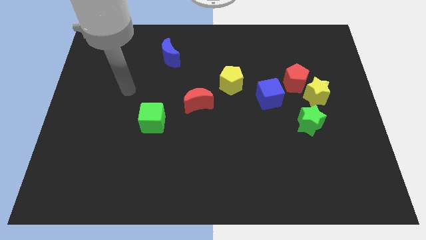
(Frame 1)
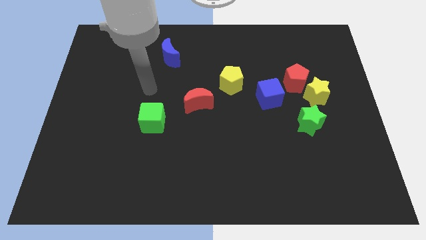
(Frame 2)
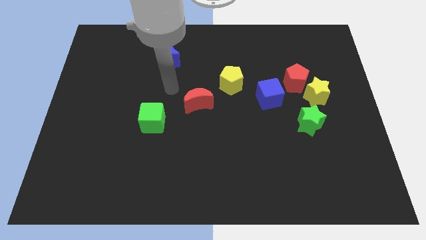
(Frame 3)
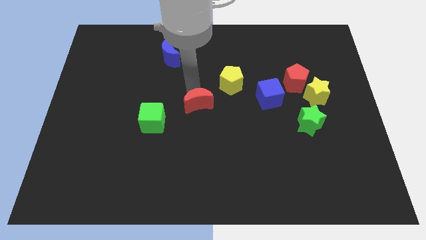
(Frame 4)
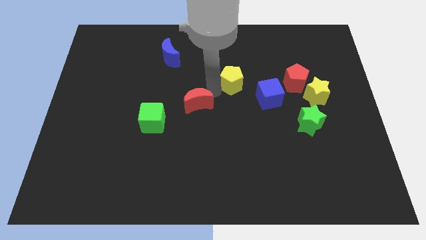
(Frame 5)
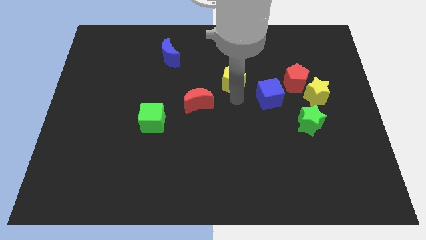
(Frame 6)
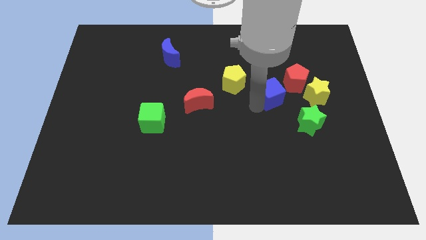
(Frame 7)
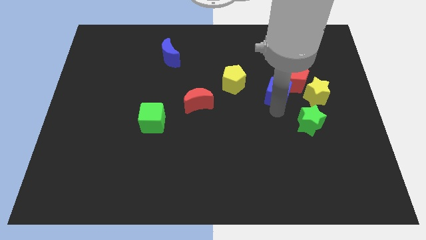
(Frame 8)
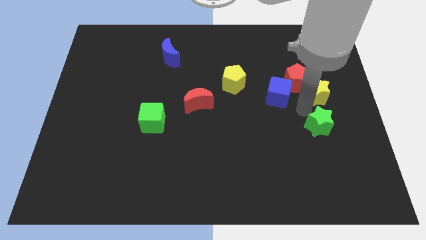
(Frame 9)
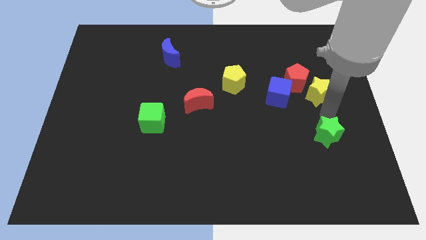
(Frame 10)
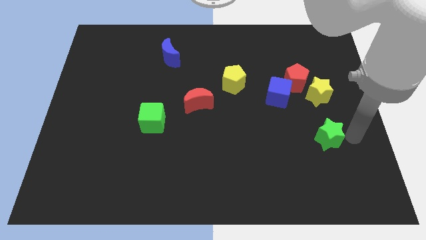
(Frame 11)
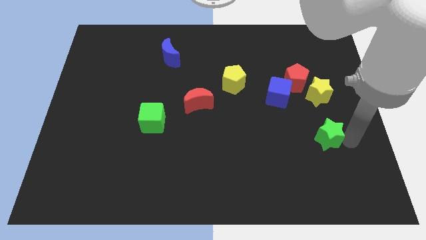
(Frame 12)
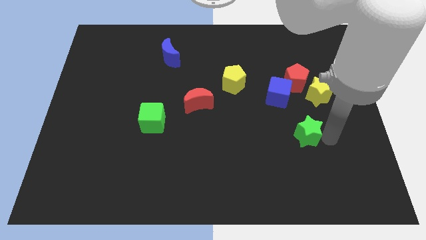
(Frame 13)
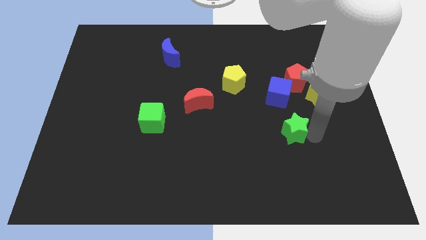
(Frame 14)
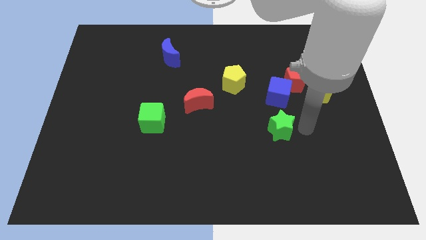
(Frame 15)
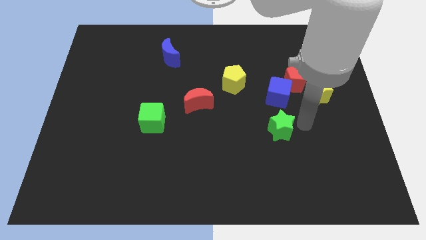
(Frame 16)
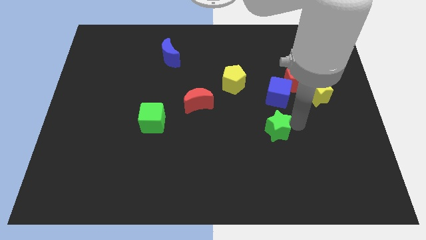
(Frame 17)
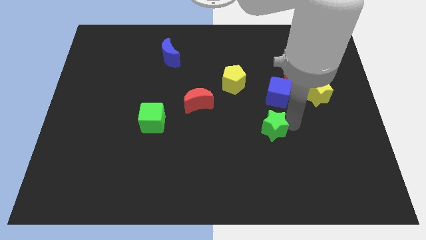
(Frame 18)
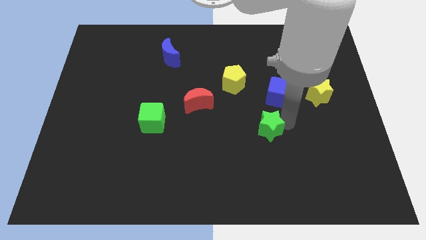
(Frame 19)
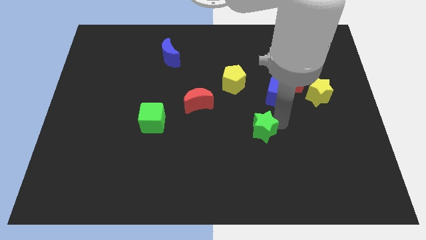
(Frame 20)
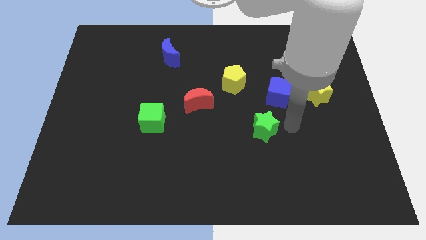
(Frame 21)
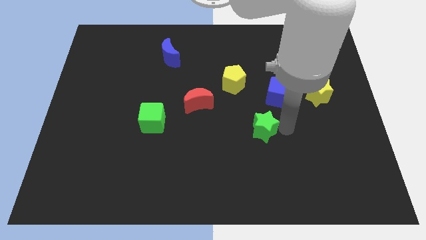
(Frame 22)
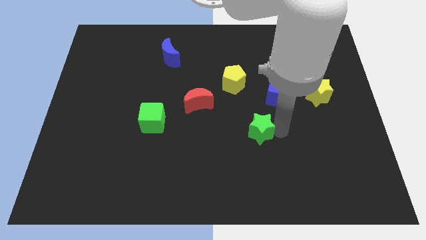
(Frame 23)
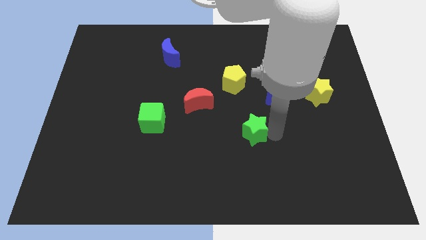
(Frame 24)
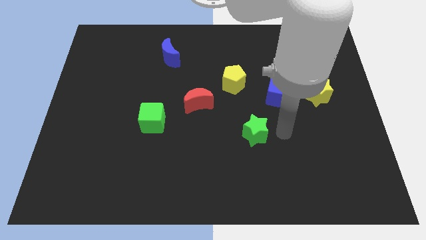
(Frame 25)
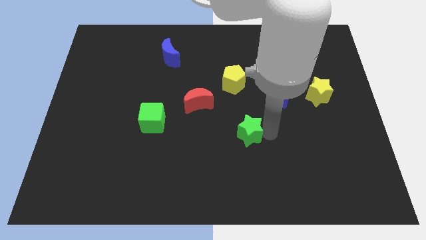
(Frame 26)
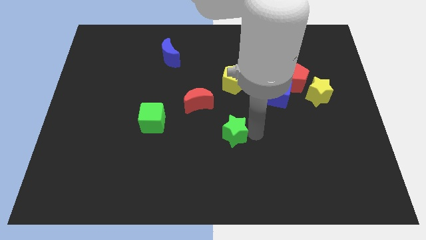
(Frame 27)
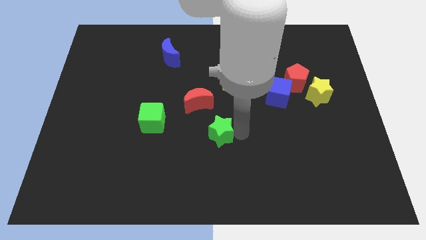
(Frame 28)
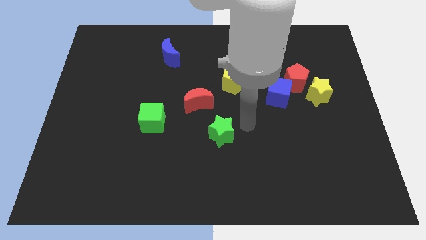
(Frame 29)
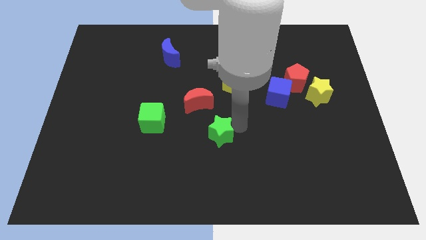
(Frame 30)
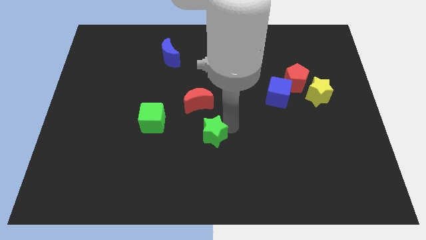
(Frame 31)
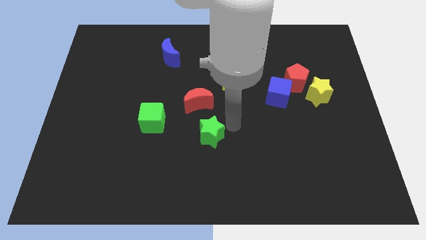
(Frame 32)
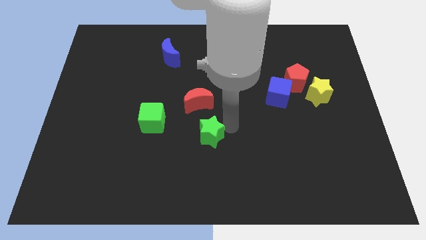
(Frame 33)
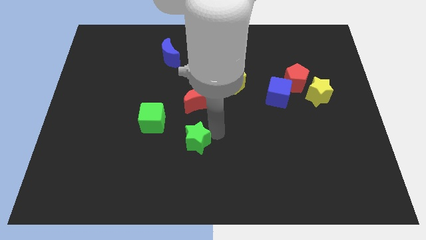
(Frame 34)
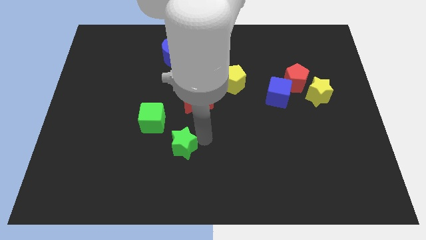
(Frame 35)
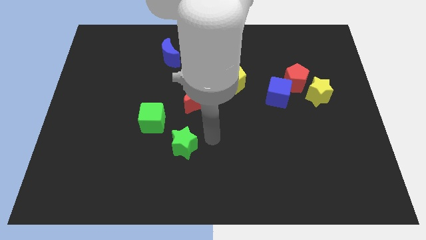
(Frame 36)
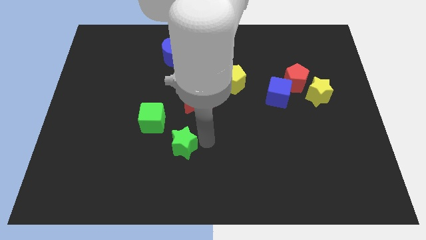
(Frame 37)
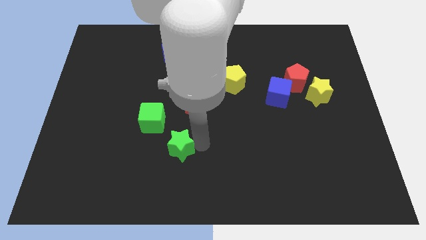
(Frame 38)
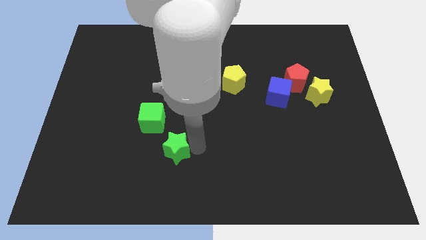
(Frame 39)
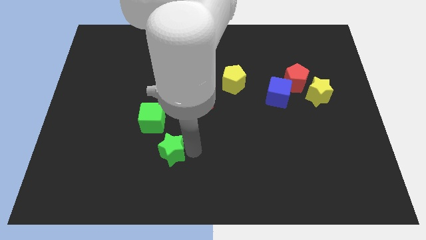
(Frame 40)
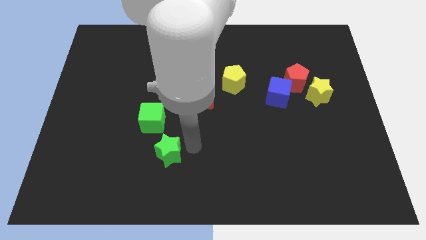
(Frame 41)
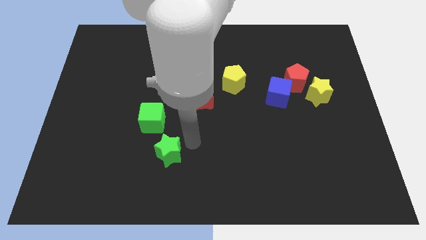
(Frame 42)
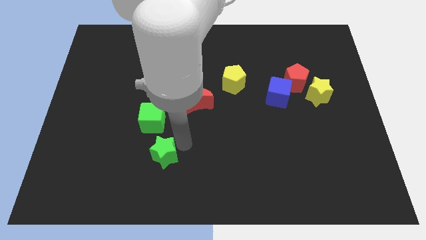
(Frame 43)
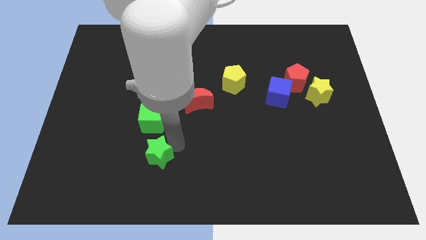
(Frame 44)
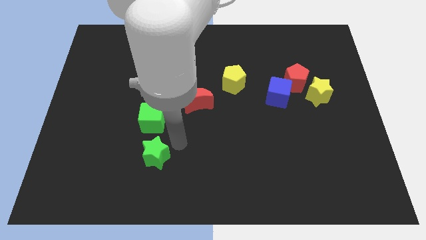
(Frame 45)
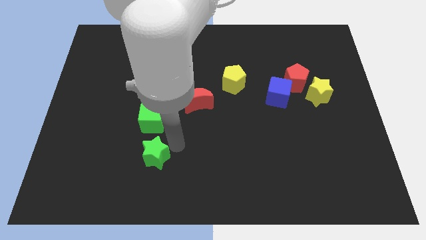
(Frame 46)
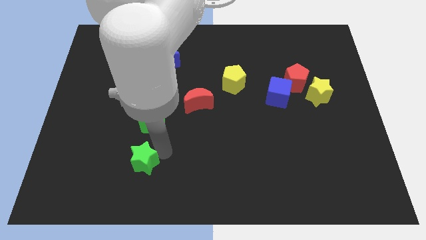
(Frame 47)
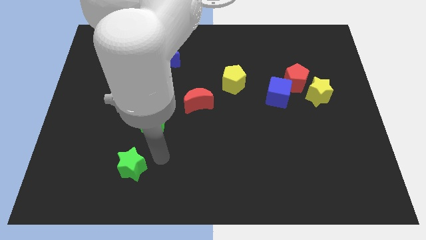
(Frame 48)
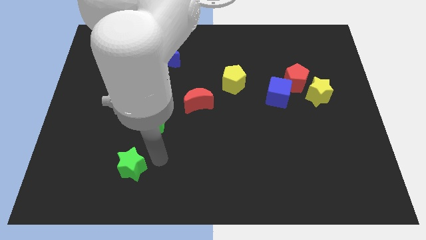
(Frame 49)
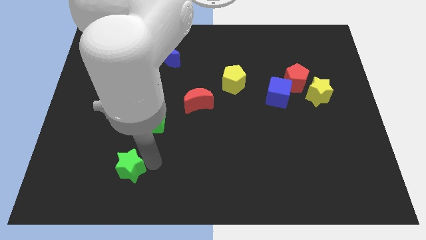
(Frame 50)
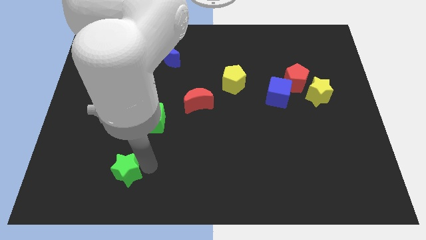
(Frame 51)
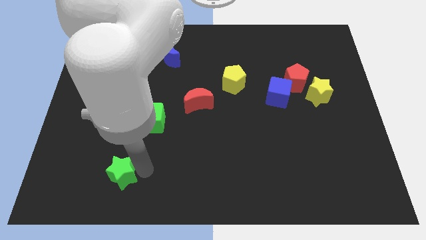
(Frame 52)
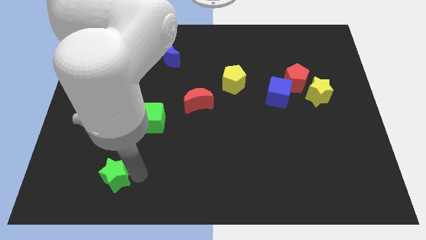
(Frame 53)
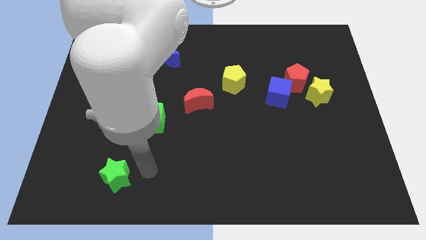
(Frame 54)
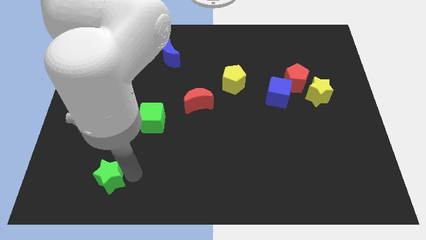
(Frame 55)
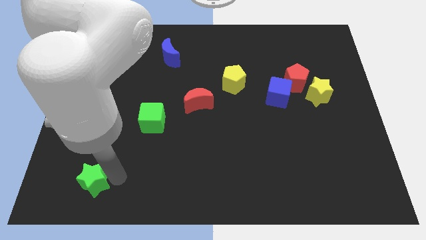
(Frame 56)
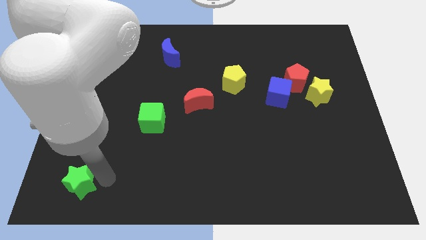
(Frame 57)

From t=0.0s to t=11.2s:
put the green star to the lower left corner

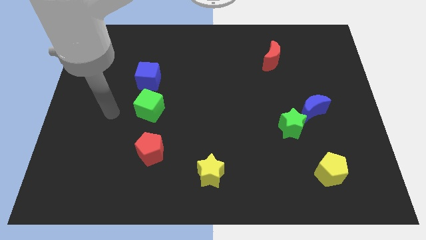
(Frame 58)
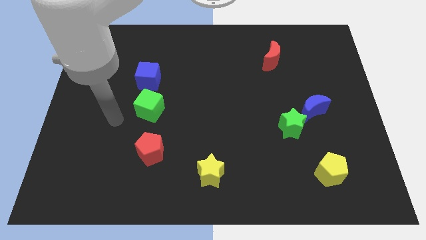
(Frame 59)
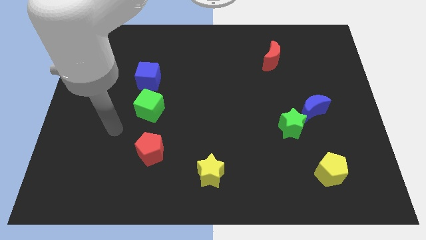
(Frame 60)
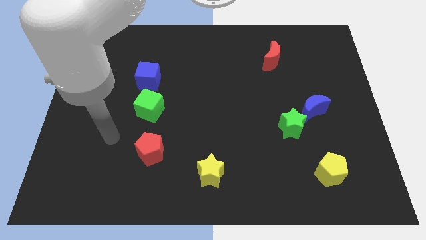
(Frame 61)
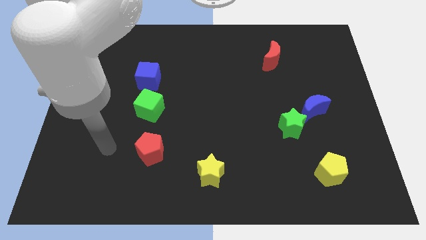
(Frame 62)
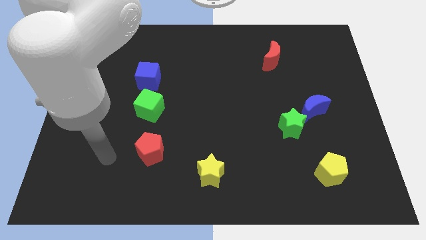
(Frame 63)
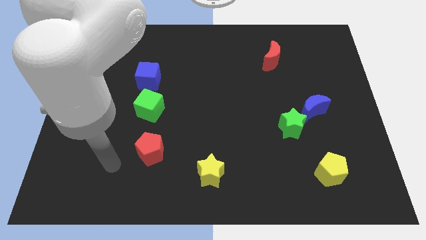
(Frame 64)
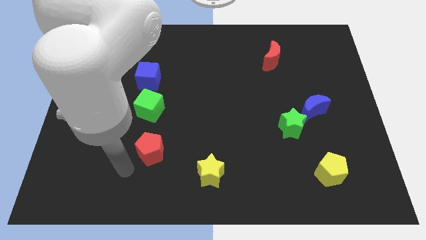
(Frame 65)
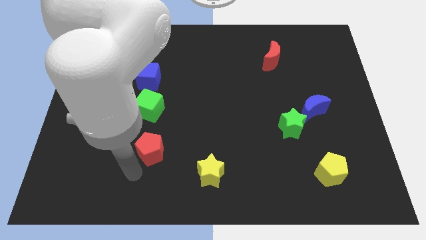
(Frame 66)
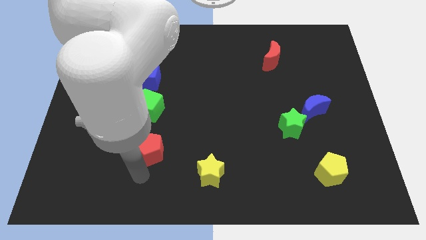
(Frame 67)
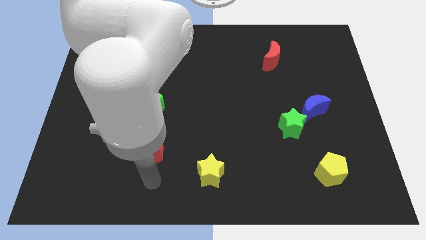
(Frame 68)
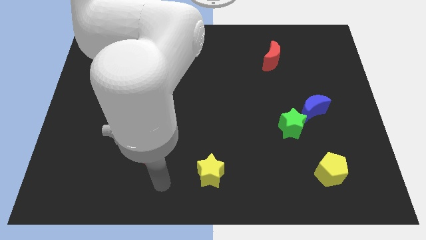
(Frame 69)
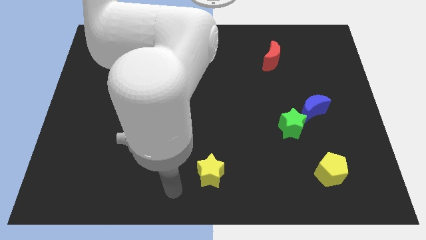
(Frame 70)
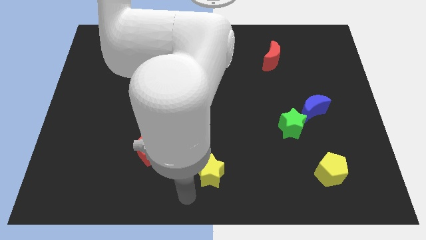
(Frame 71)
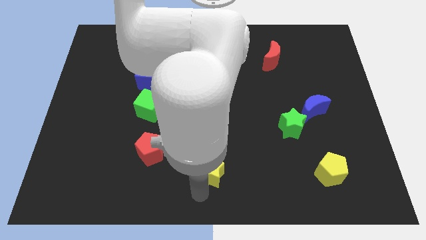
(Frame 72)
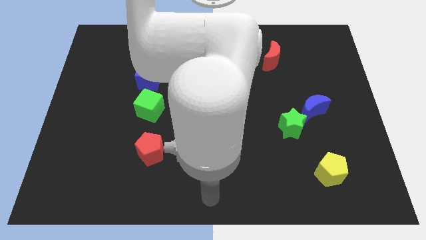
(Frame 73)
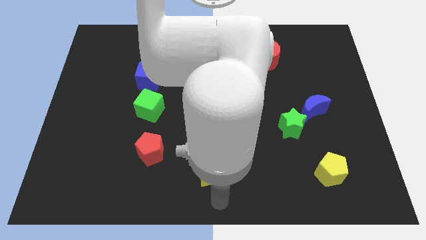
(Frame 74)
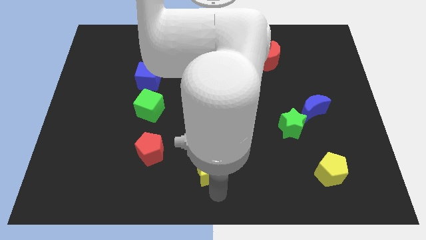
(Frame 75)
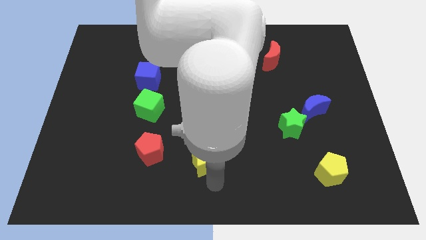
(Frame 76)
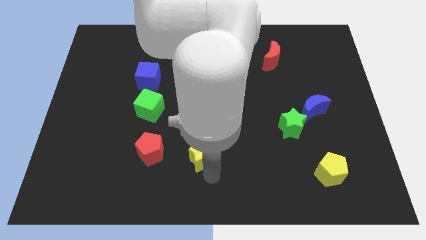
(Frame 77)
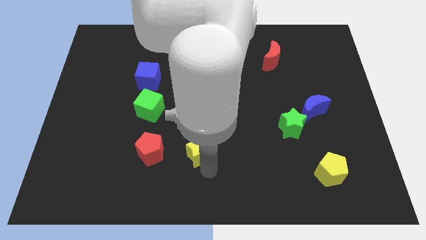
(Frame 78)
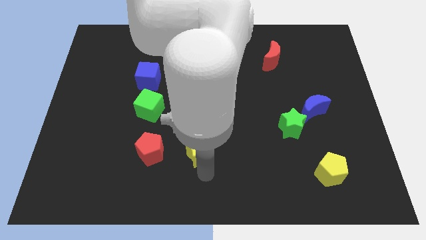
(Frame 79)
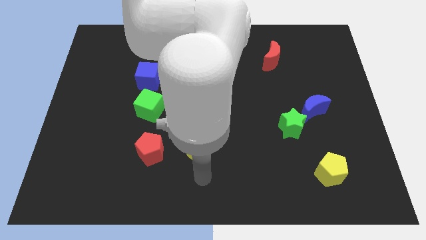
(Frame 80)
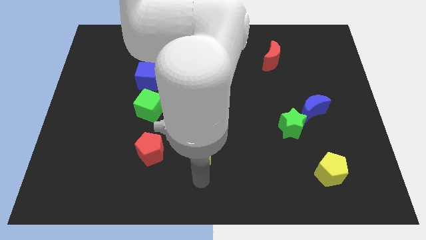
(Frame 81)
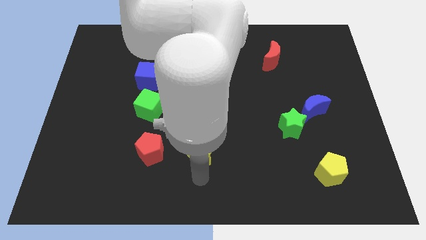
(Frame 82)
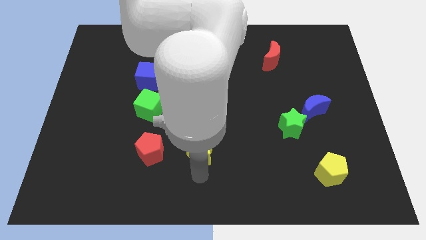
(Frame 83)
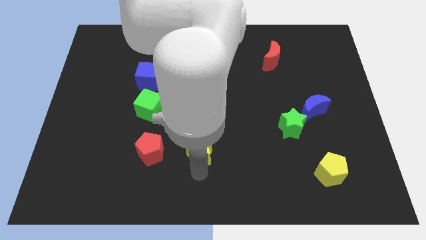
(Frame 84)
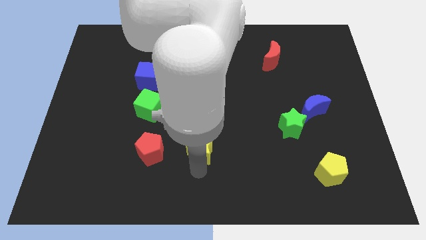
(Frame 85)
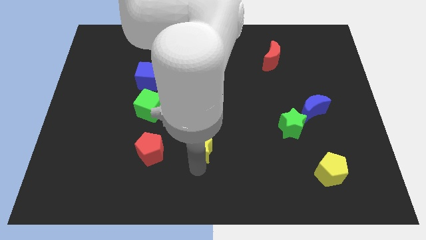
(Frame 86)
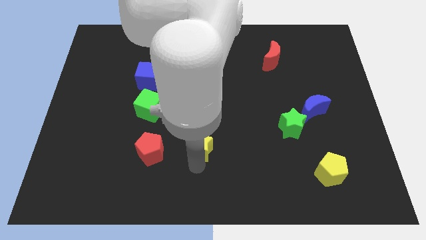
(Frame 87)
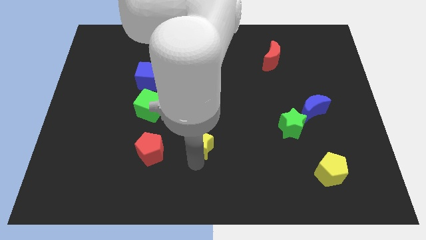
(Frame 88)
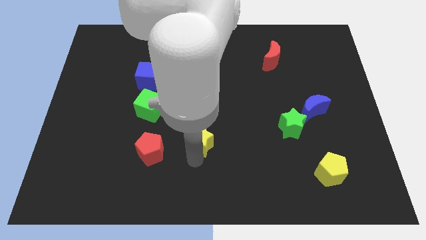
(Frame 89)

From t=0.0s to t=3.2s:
put the yellow star to the middle
